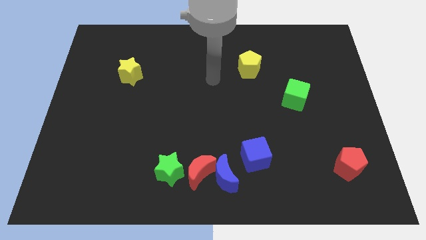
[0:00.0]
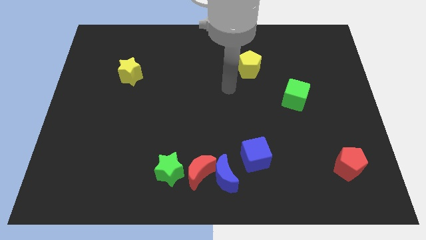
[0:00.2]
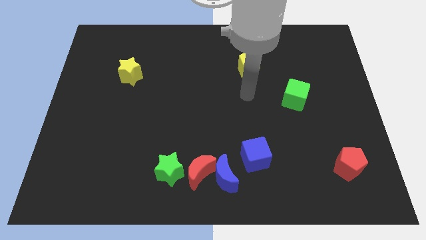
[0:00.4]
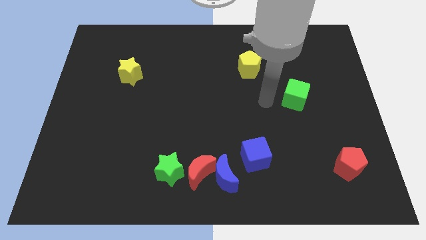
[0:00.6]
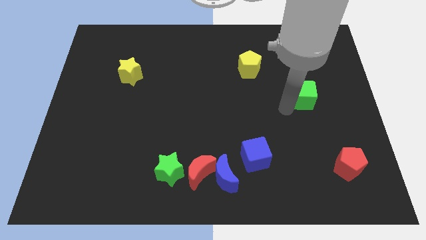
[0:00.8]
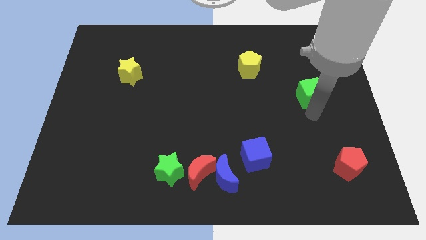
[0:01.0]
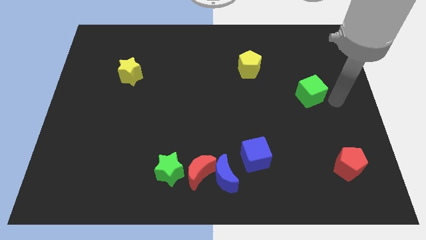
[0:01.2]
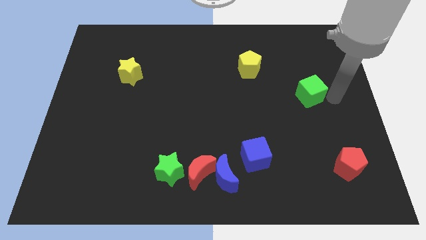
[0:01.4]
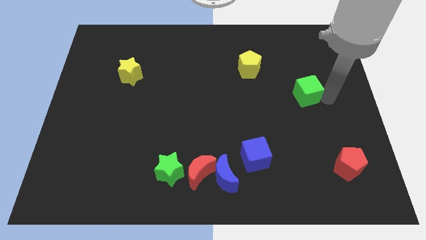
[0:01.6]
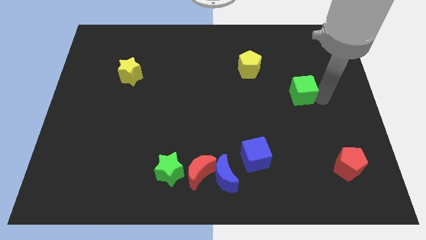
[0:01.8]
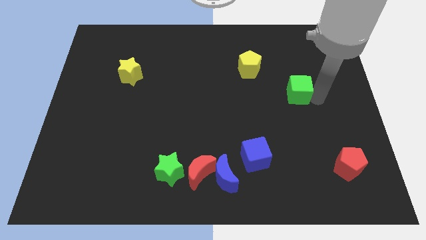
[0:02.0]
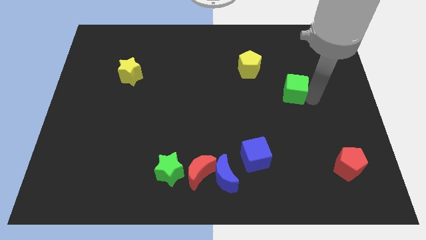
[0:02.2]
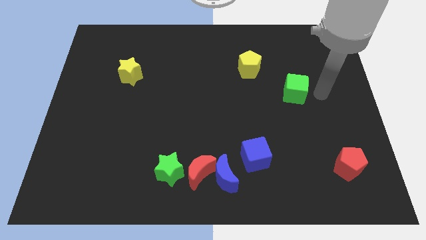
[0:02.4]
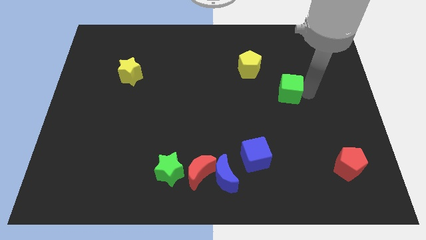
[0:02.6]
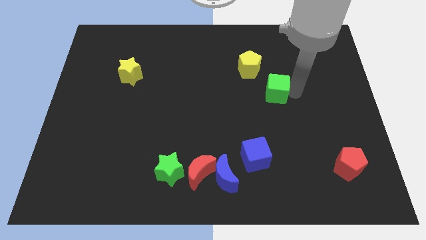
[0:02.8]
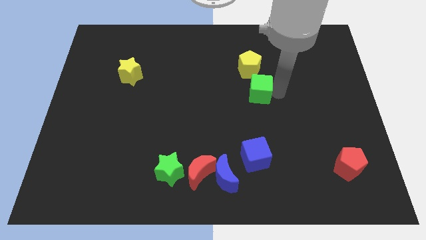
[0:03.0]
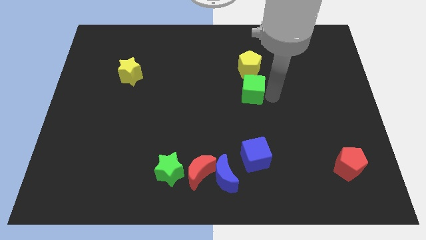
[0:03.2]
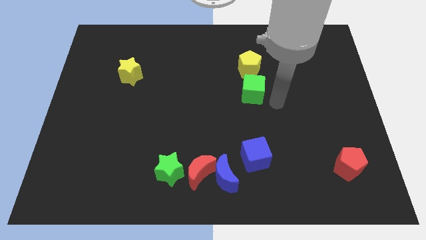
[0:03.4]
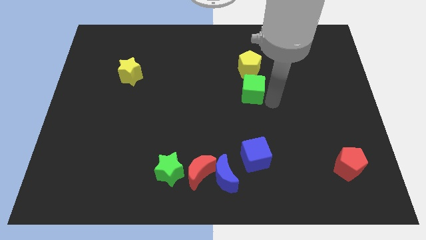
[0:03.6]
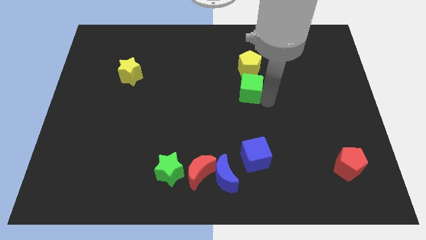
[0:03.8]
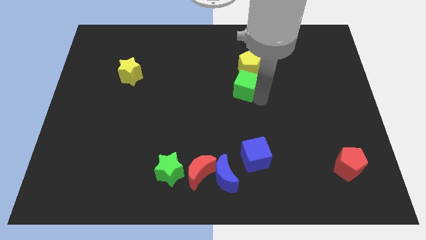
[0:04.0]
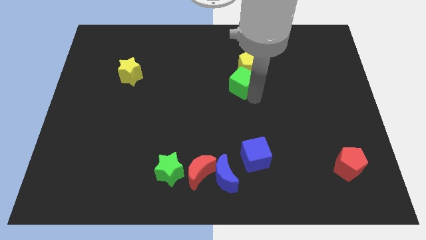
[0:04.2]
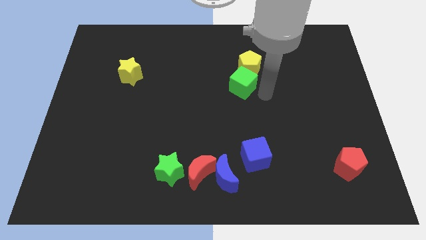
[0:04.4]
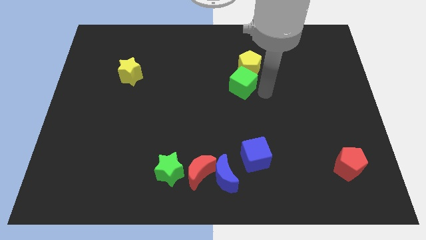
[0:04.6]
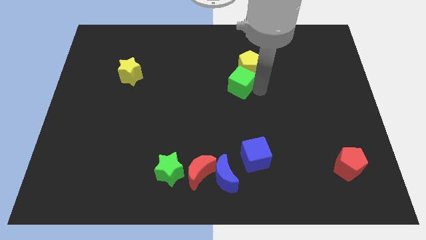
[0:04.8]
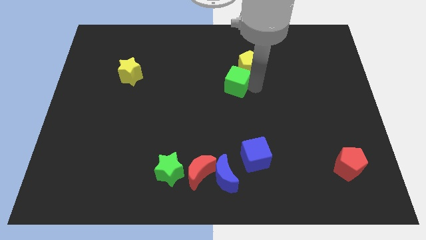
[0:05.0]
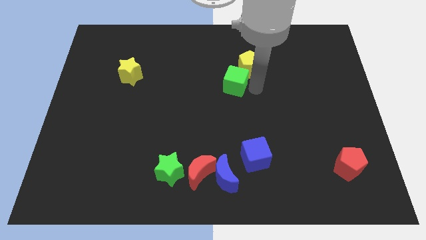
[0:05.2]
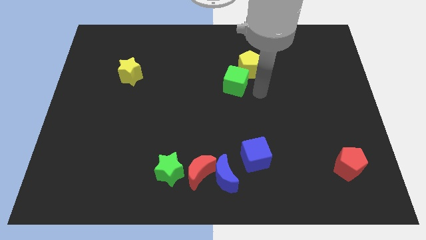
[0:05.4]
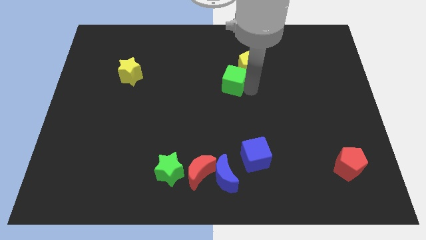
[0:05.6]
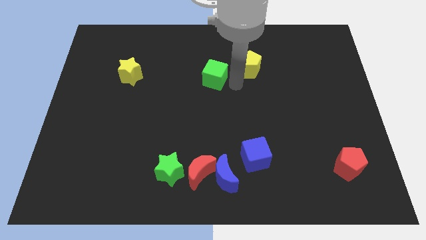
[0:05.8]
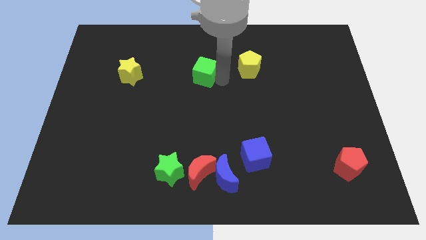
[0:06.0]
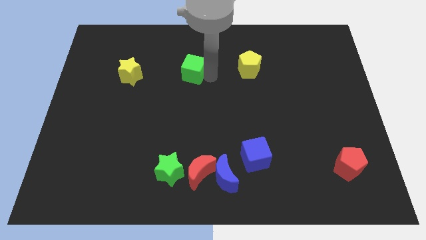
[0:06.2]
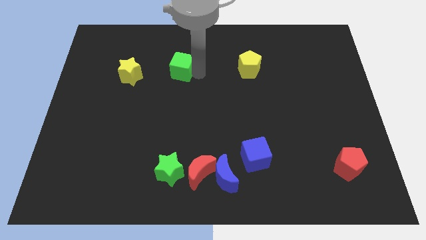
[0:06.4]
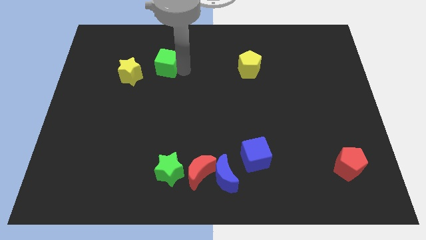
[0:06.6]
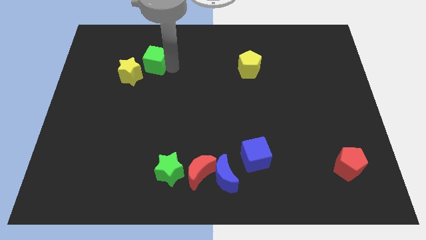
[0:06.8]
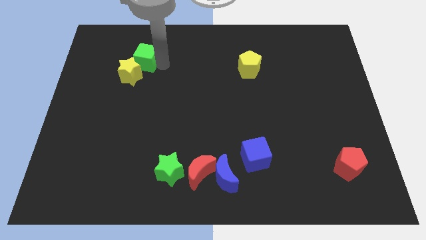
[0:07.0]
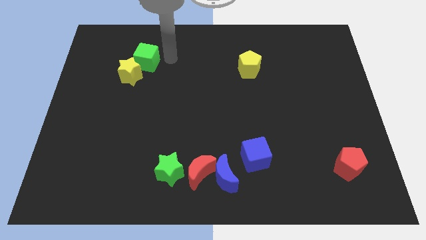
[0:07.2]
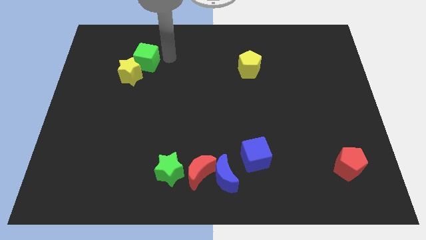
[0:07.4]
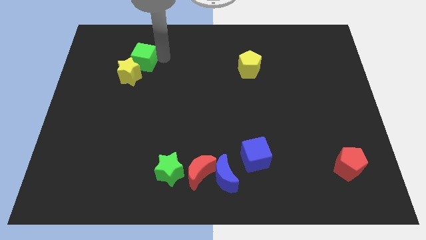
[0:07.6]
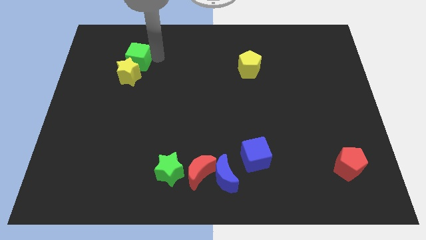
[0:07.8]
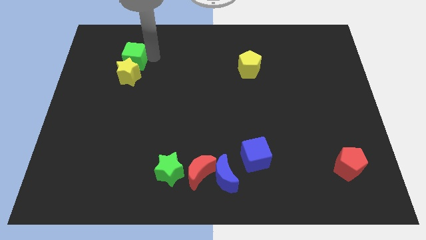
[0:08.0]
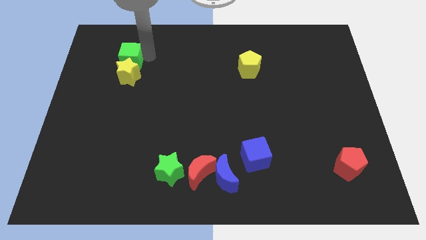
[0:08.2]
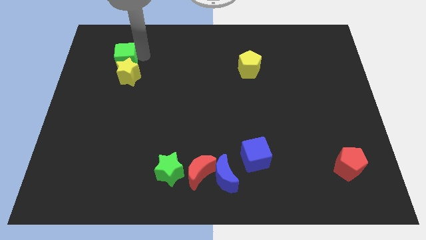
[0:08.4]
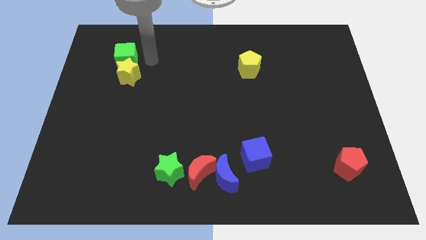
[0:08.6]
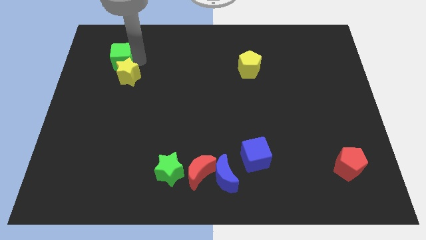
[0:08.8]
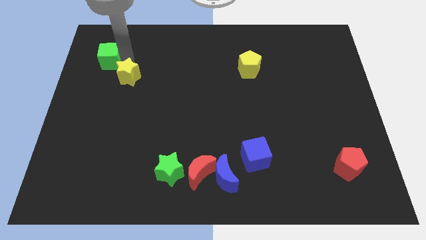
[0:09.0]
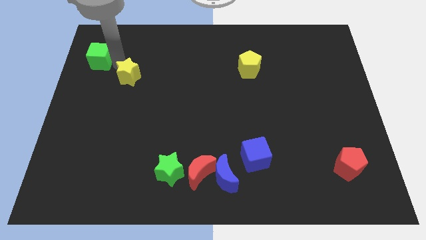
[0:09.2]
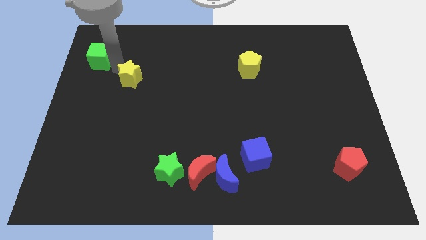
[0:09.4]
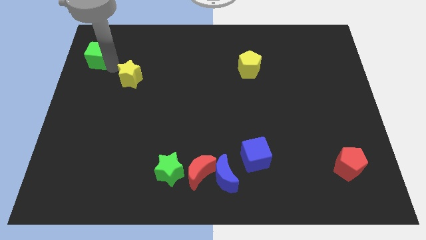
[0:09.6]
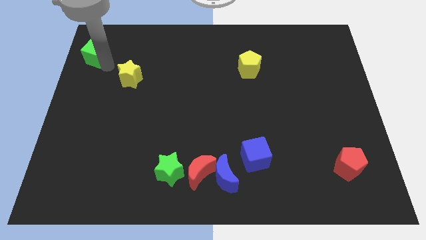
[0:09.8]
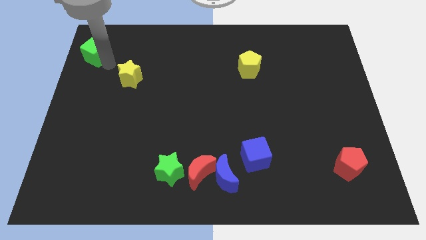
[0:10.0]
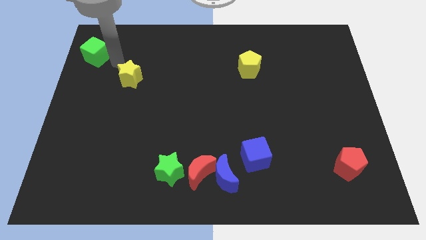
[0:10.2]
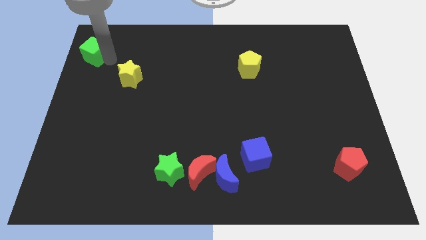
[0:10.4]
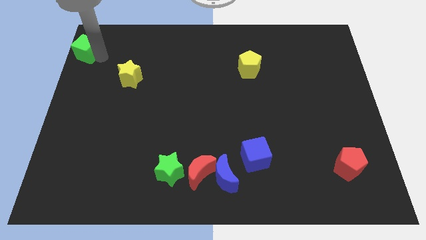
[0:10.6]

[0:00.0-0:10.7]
put the green cube to the top left of the board

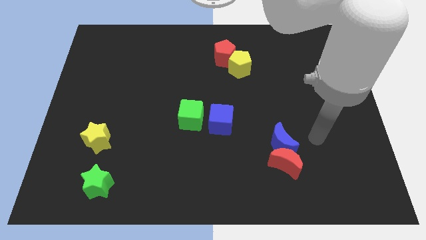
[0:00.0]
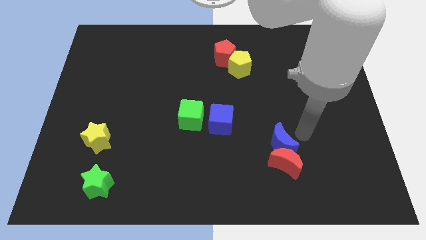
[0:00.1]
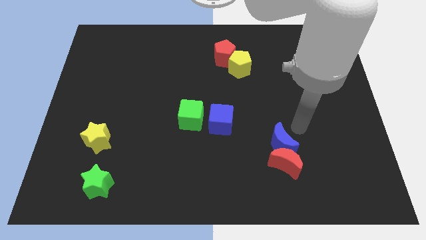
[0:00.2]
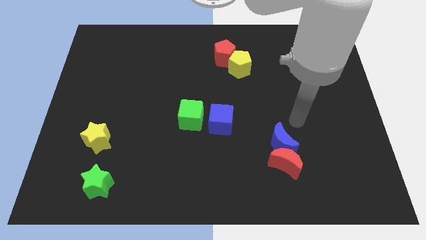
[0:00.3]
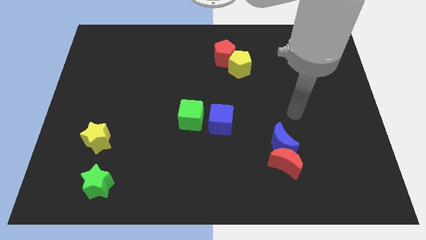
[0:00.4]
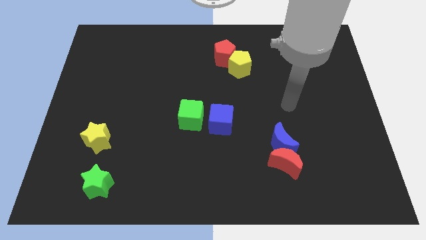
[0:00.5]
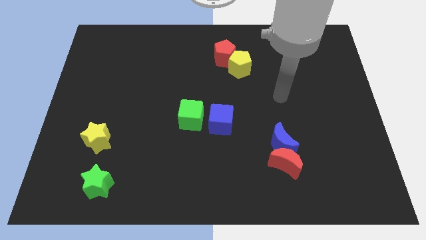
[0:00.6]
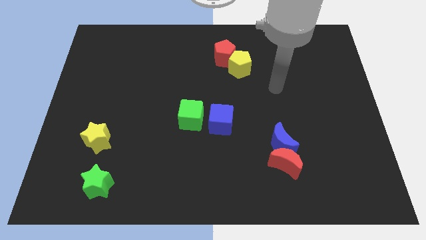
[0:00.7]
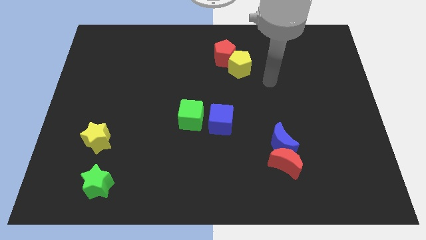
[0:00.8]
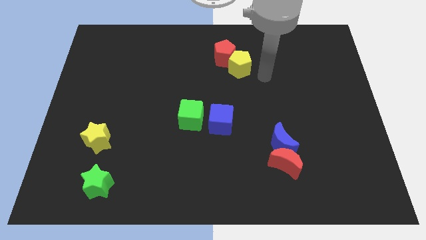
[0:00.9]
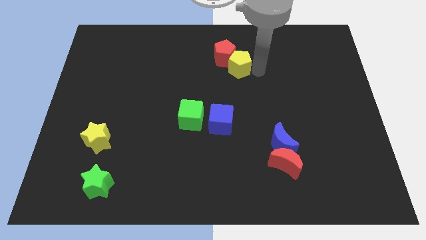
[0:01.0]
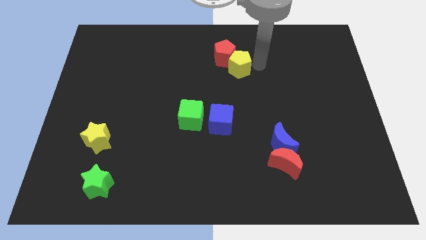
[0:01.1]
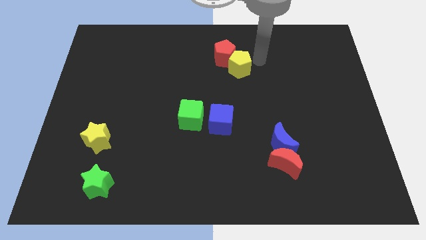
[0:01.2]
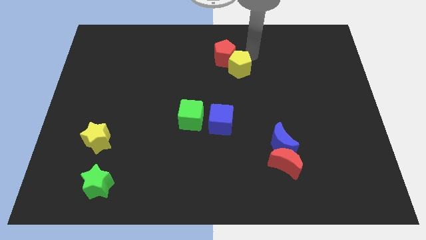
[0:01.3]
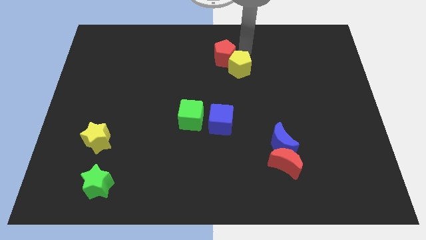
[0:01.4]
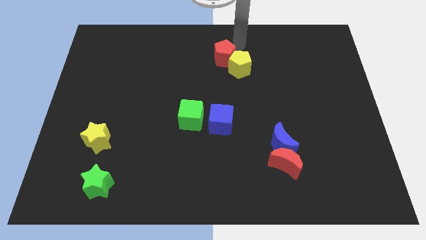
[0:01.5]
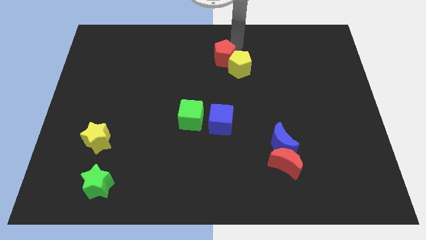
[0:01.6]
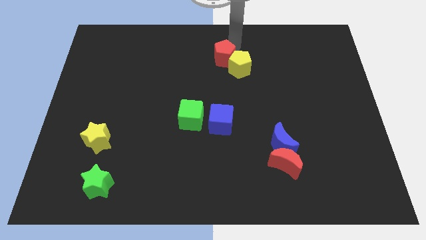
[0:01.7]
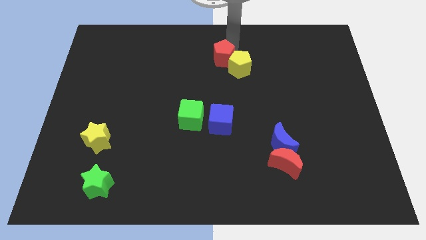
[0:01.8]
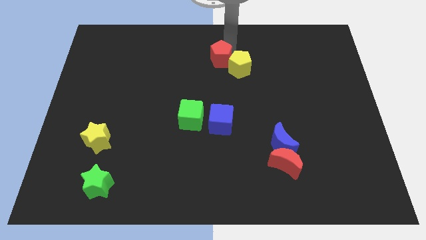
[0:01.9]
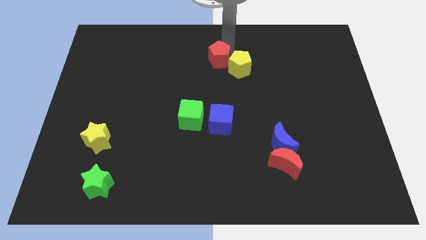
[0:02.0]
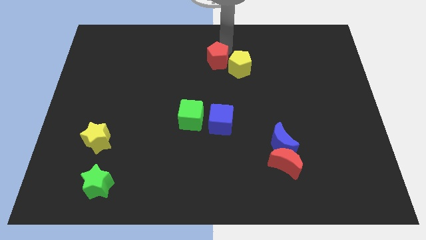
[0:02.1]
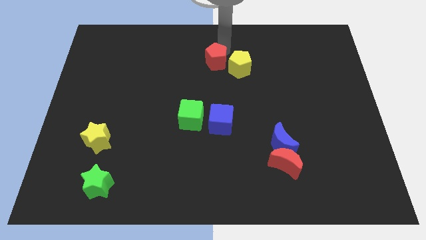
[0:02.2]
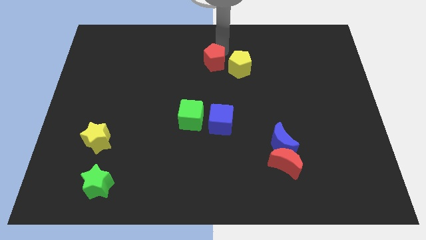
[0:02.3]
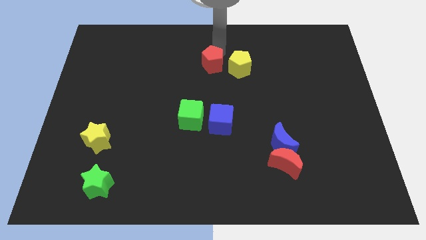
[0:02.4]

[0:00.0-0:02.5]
put the red pentagon to the middle of the board

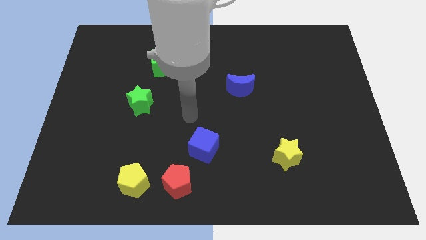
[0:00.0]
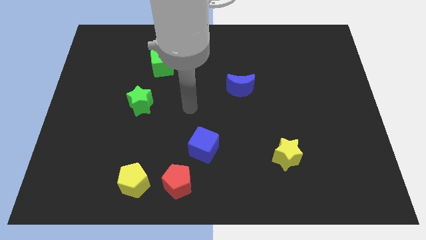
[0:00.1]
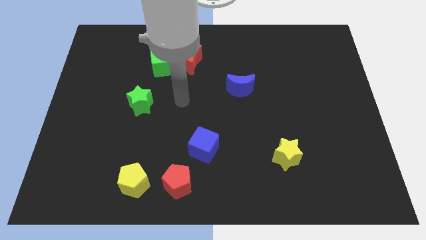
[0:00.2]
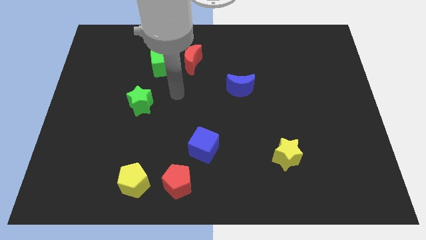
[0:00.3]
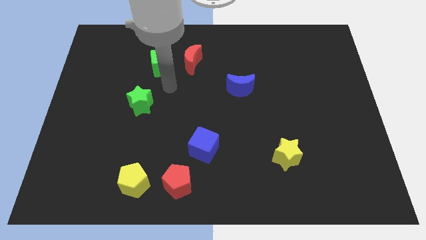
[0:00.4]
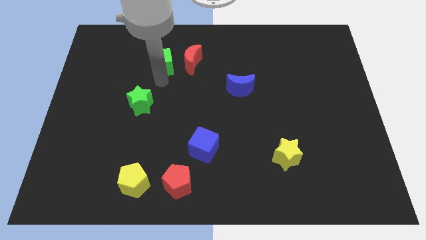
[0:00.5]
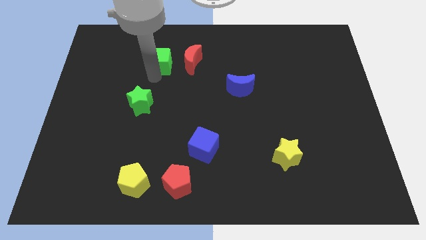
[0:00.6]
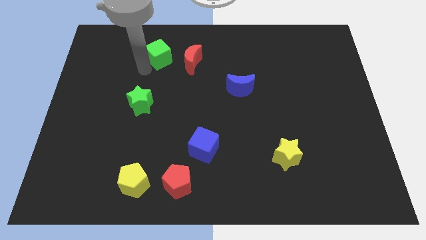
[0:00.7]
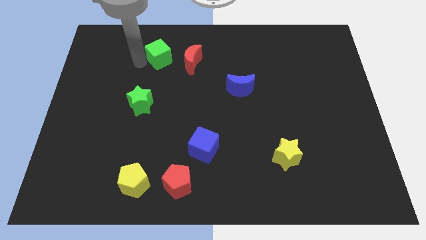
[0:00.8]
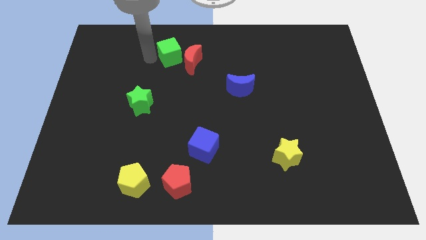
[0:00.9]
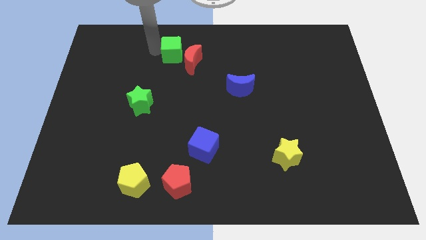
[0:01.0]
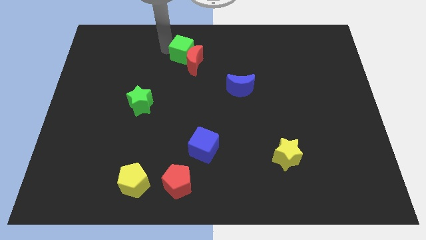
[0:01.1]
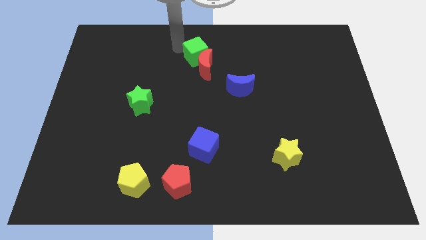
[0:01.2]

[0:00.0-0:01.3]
move the red moon to the middle of the board
